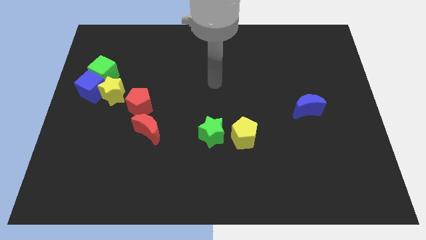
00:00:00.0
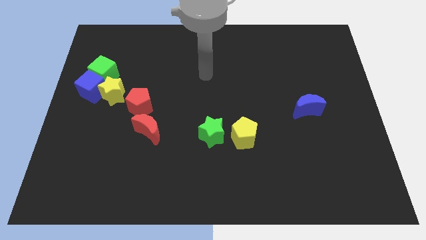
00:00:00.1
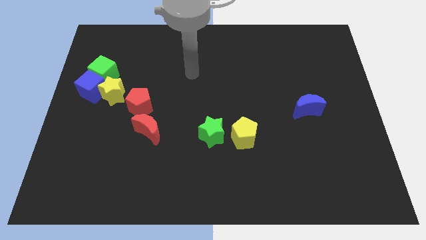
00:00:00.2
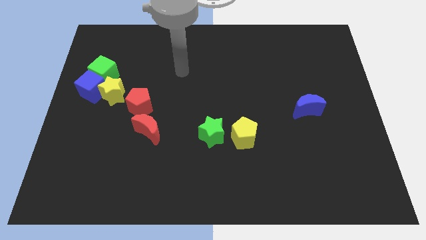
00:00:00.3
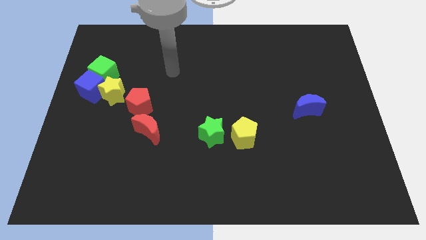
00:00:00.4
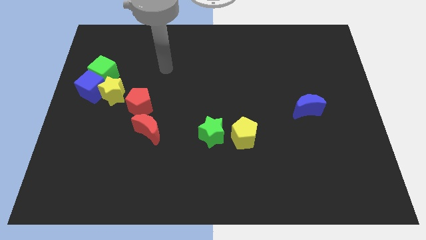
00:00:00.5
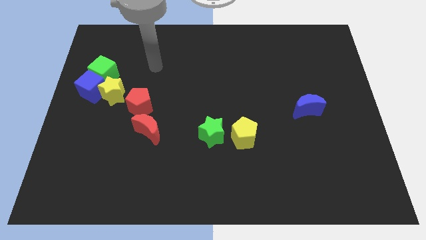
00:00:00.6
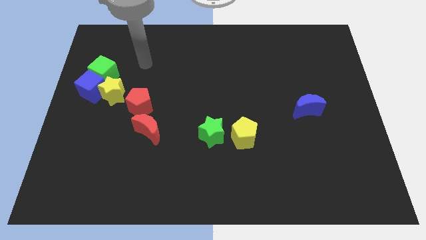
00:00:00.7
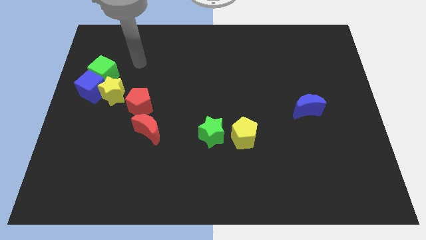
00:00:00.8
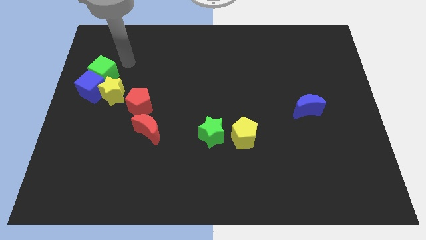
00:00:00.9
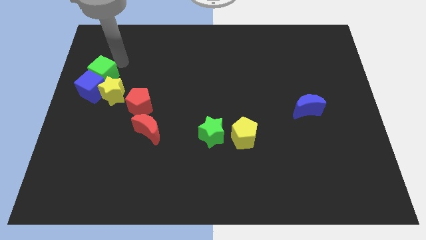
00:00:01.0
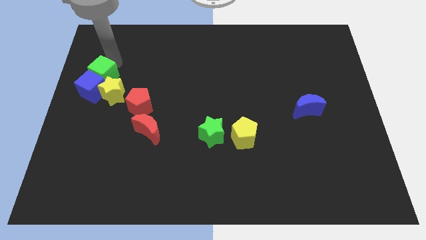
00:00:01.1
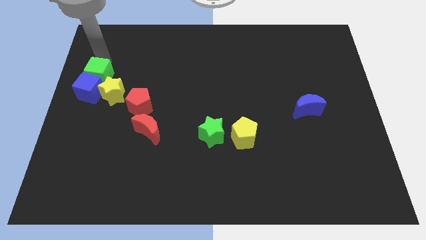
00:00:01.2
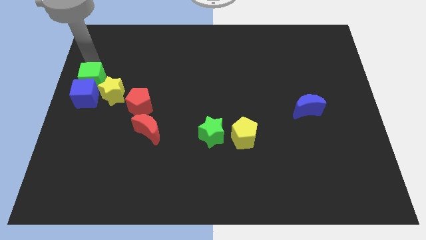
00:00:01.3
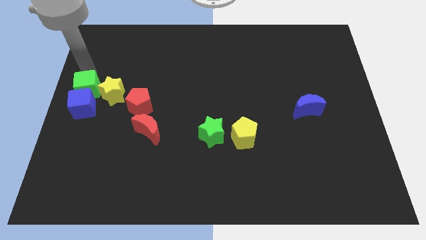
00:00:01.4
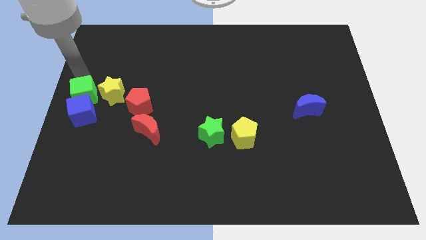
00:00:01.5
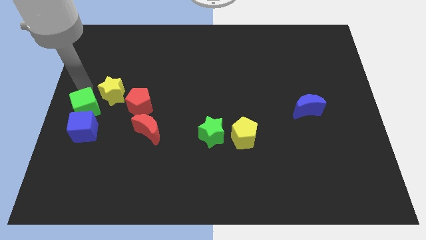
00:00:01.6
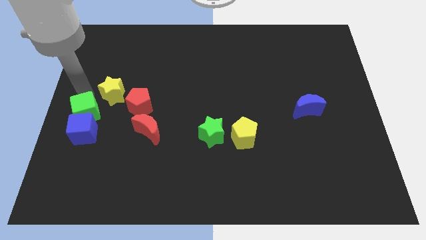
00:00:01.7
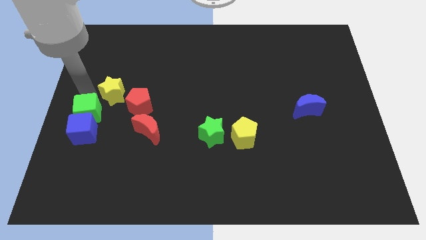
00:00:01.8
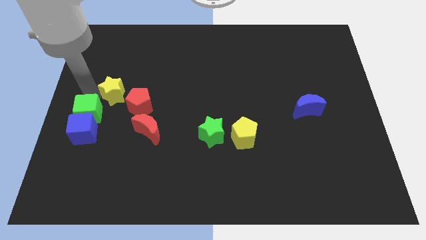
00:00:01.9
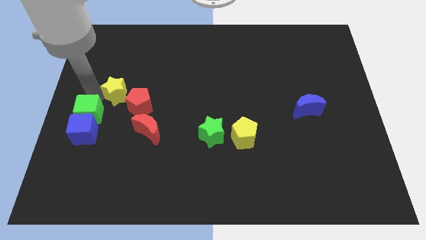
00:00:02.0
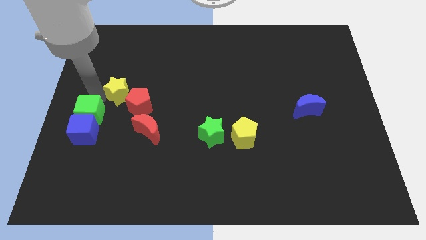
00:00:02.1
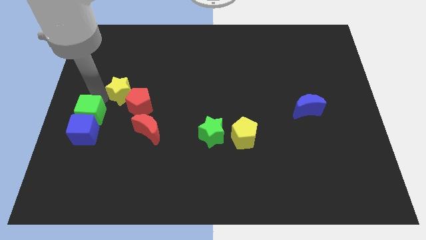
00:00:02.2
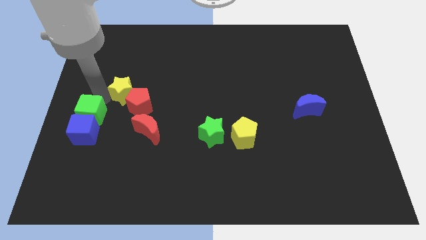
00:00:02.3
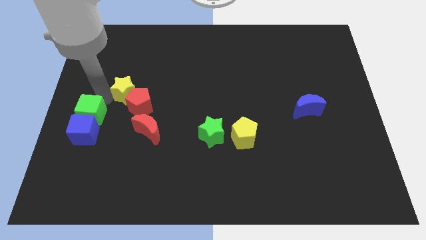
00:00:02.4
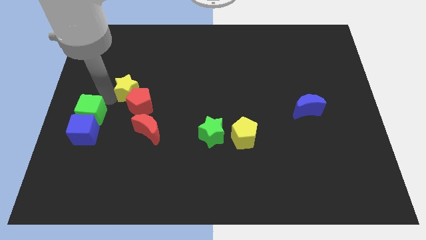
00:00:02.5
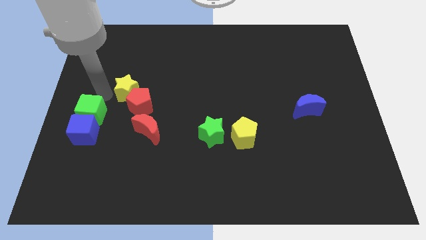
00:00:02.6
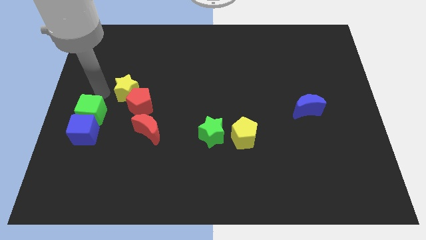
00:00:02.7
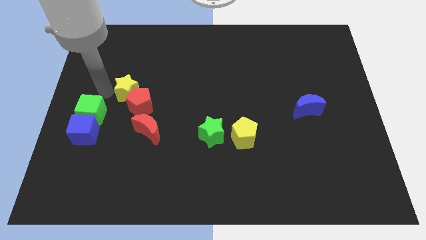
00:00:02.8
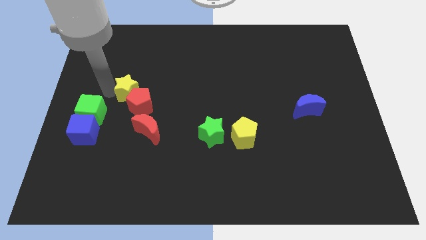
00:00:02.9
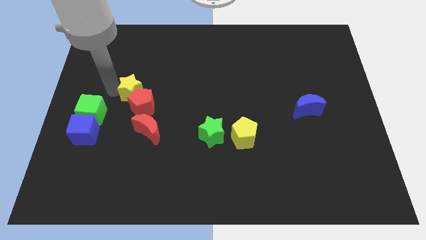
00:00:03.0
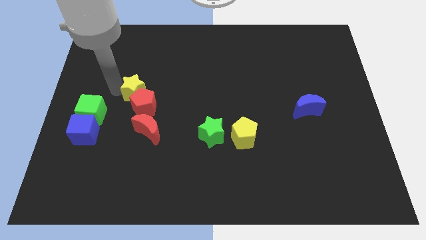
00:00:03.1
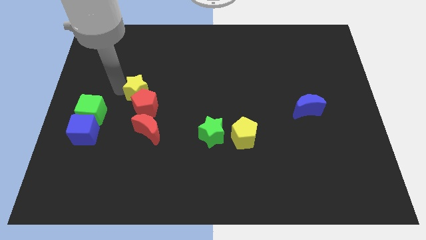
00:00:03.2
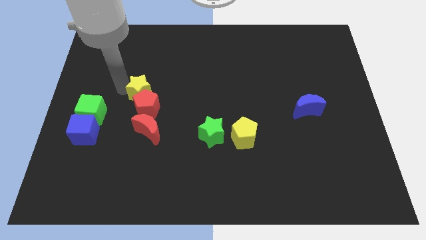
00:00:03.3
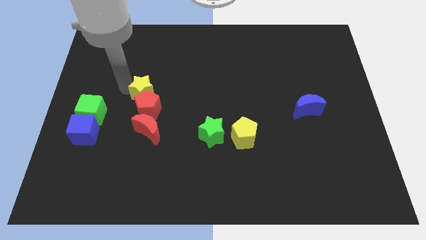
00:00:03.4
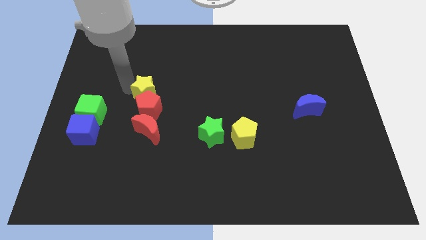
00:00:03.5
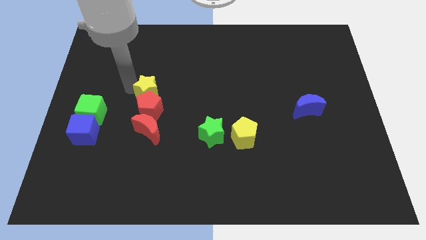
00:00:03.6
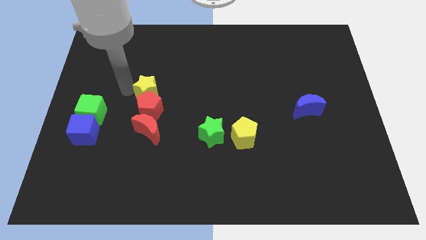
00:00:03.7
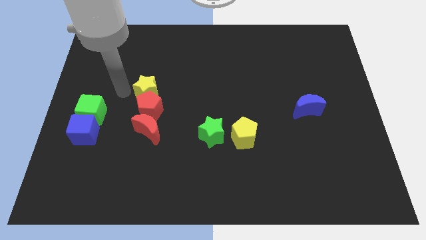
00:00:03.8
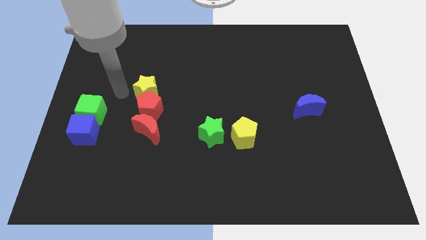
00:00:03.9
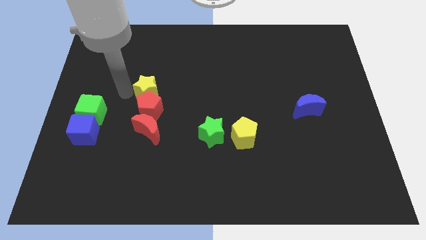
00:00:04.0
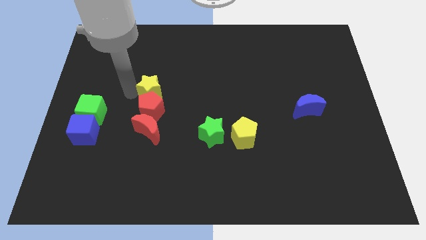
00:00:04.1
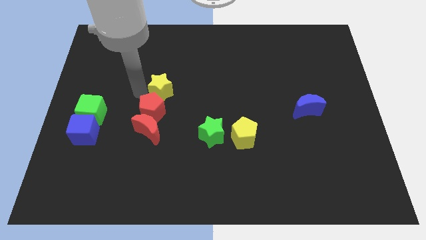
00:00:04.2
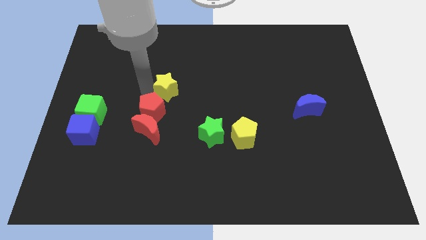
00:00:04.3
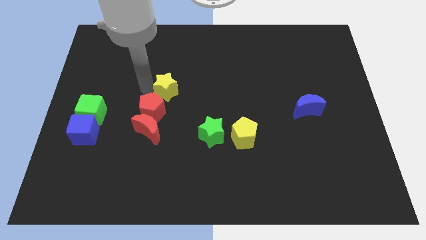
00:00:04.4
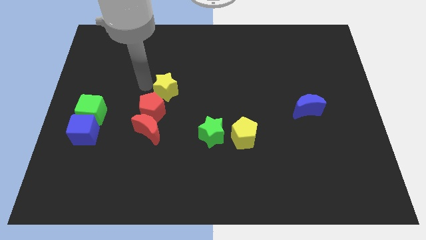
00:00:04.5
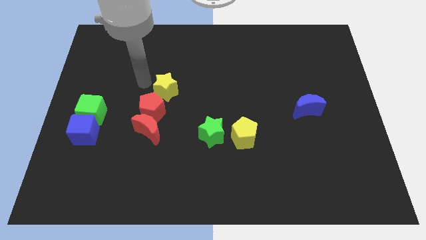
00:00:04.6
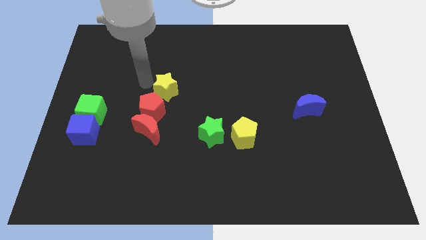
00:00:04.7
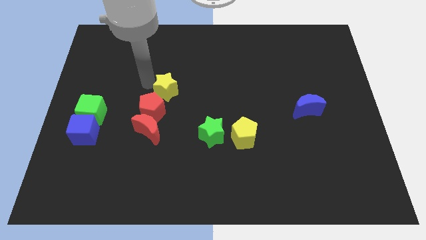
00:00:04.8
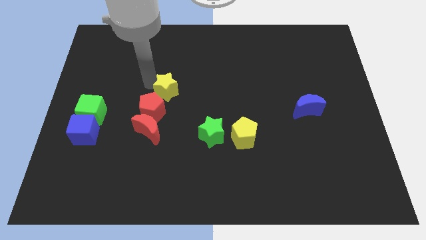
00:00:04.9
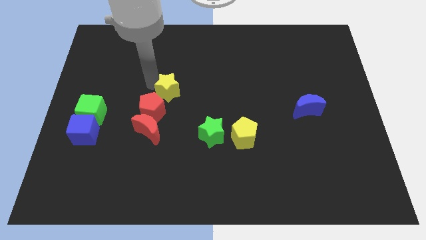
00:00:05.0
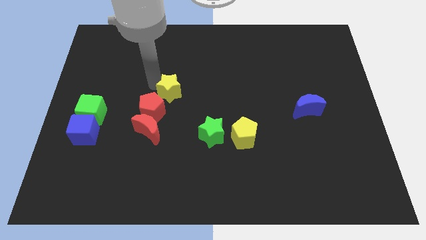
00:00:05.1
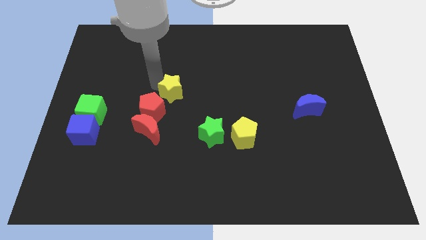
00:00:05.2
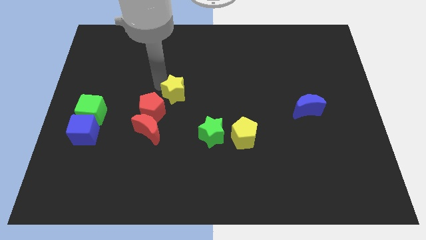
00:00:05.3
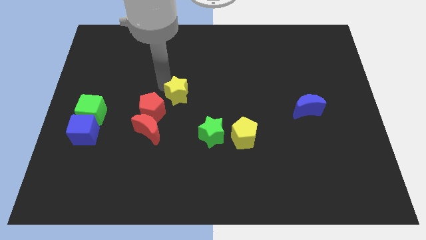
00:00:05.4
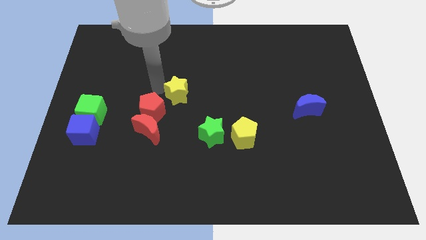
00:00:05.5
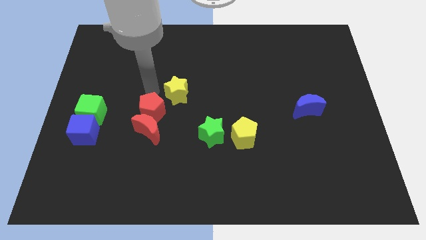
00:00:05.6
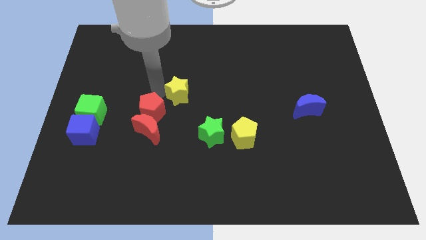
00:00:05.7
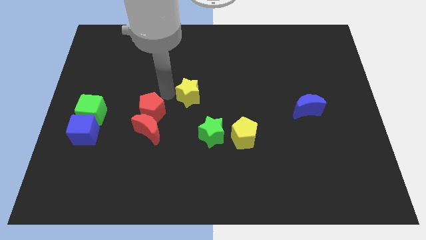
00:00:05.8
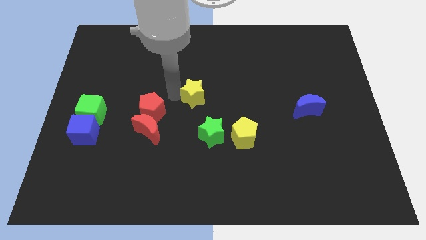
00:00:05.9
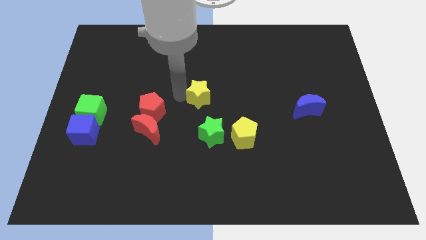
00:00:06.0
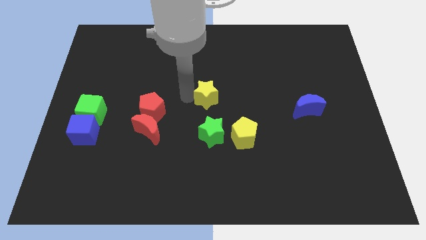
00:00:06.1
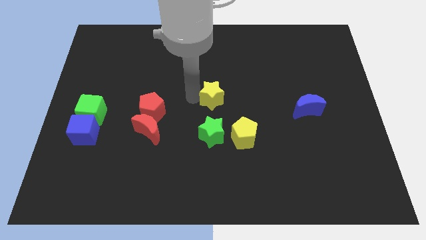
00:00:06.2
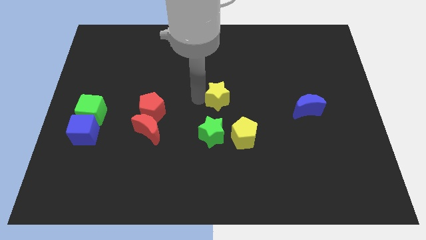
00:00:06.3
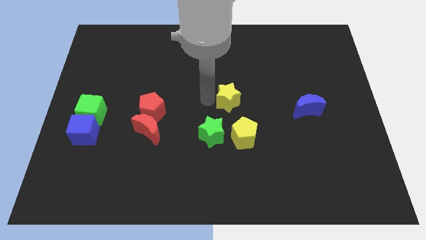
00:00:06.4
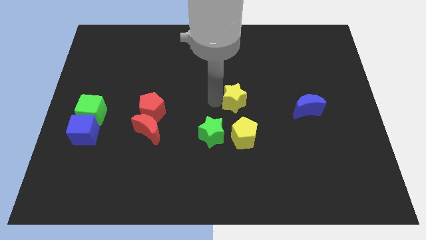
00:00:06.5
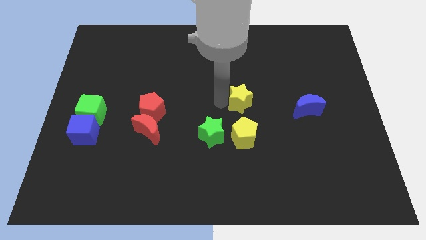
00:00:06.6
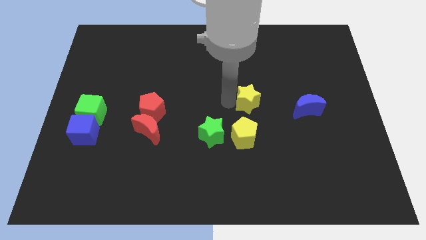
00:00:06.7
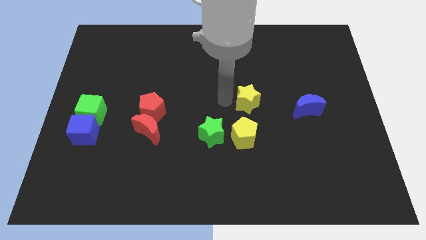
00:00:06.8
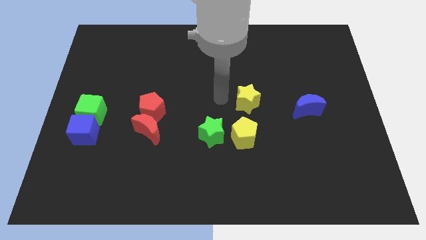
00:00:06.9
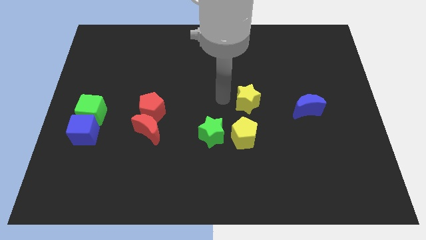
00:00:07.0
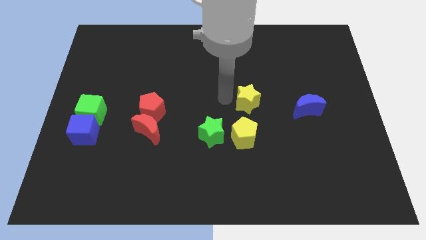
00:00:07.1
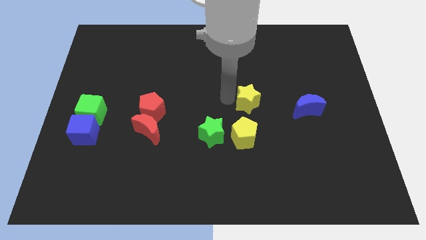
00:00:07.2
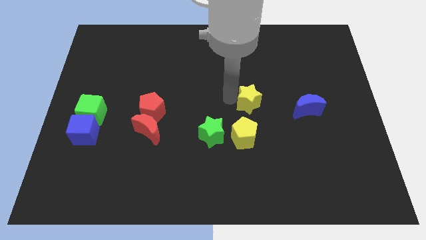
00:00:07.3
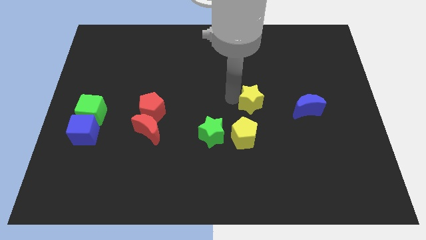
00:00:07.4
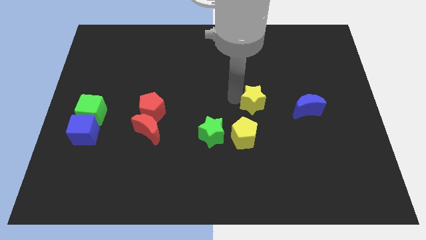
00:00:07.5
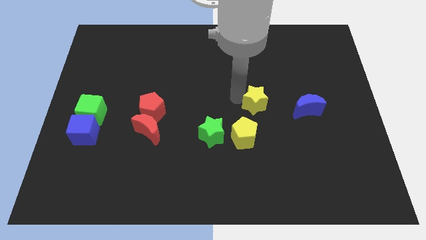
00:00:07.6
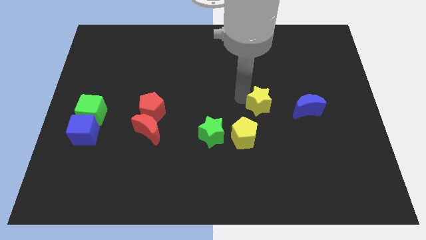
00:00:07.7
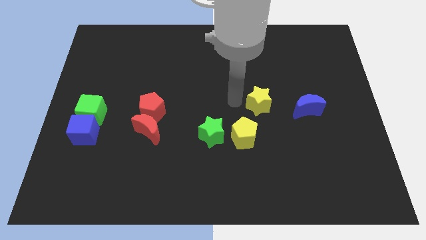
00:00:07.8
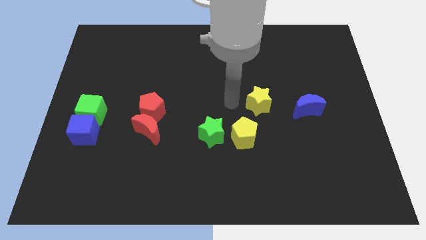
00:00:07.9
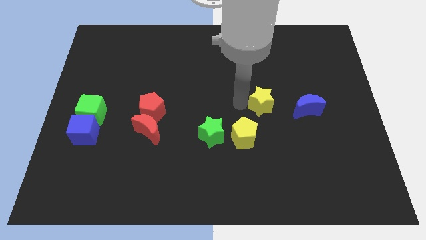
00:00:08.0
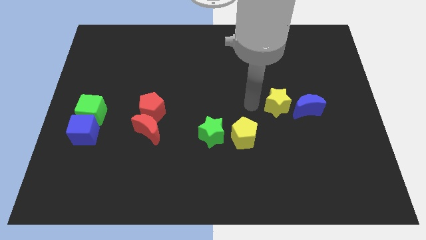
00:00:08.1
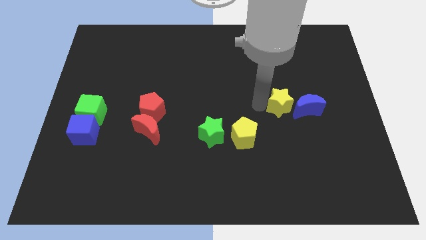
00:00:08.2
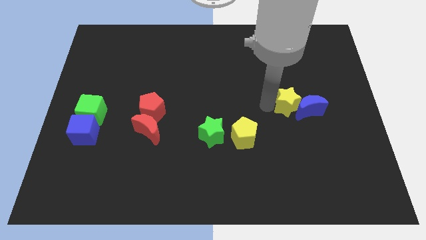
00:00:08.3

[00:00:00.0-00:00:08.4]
put the yellow star next to the blue moon
